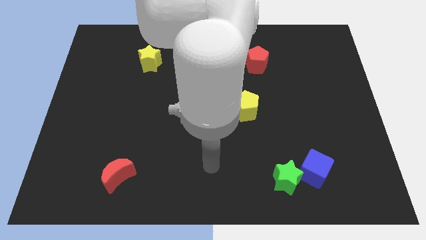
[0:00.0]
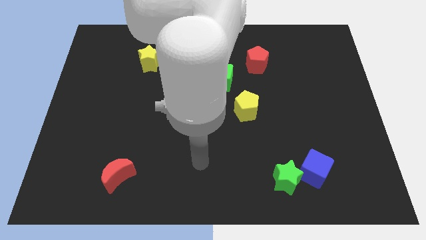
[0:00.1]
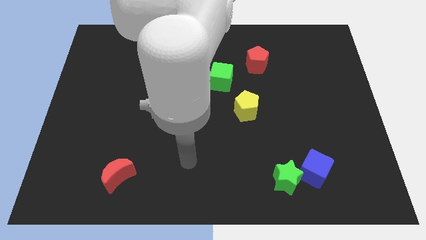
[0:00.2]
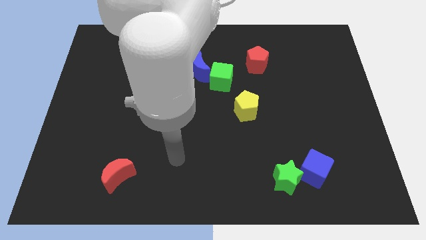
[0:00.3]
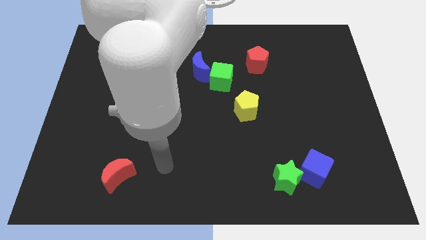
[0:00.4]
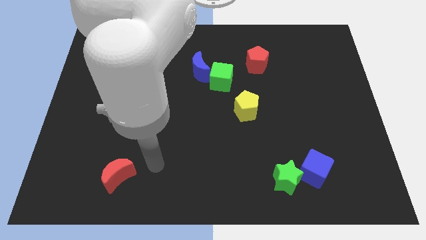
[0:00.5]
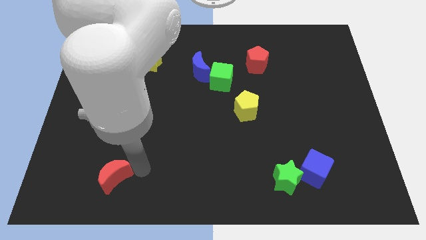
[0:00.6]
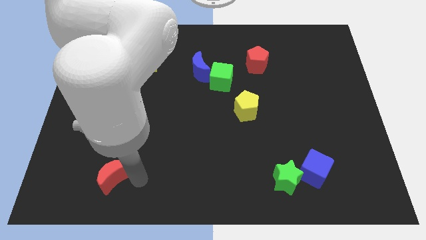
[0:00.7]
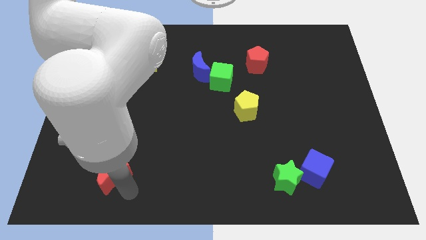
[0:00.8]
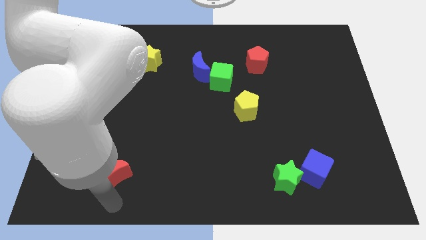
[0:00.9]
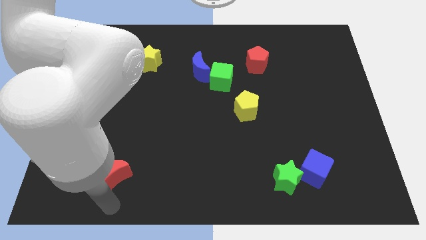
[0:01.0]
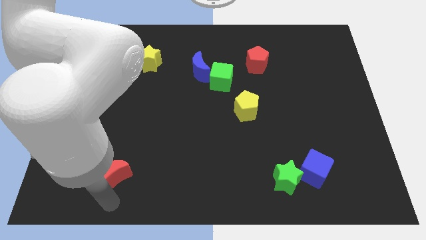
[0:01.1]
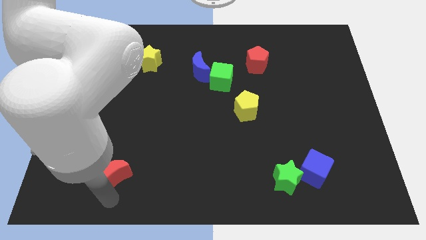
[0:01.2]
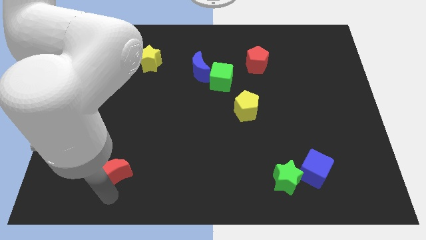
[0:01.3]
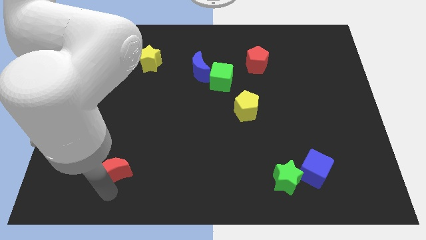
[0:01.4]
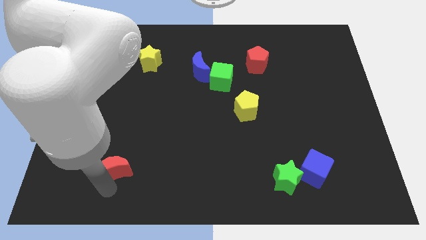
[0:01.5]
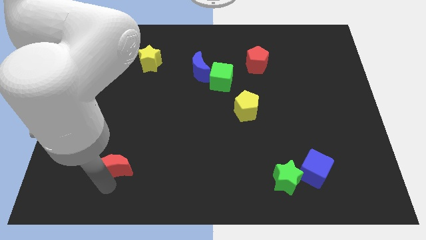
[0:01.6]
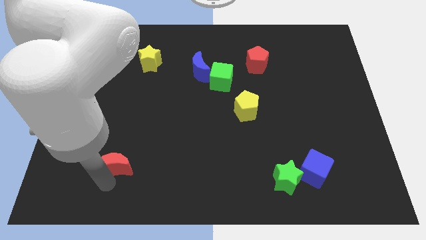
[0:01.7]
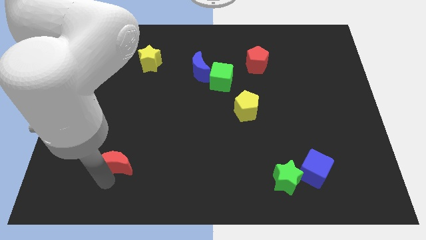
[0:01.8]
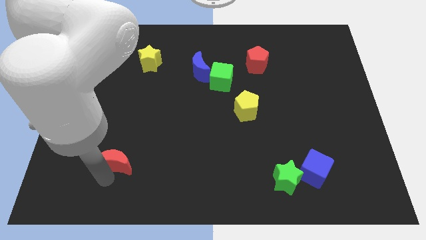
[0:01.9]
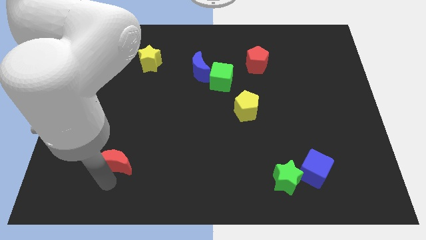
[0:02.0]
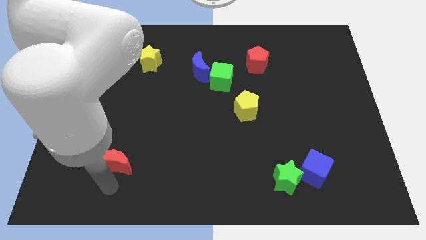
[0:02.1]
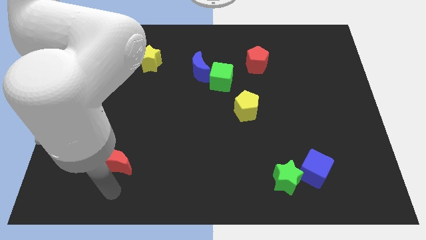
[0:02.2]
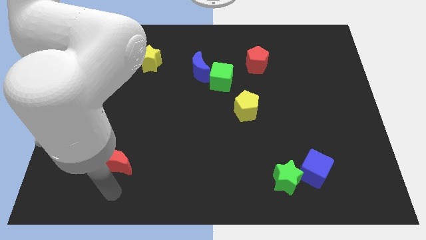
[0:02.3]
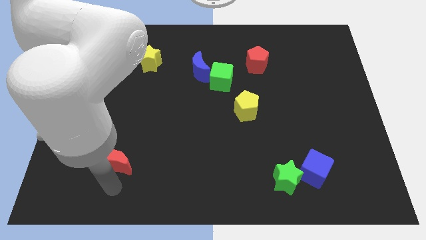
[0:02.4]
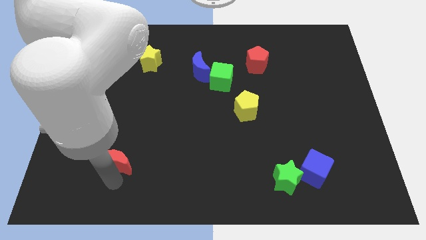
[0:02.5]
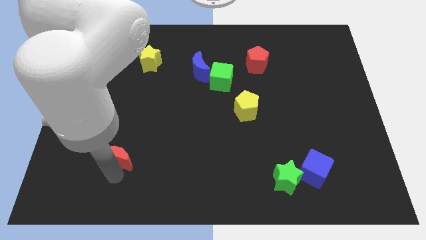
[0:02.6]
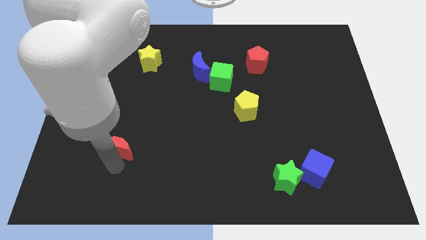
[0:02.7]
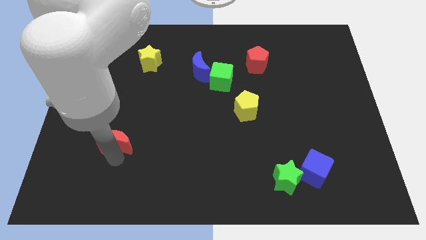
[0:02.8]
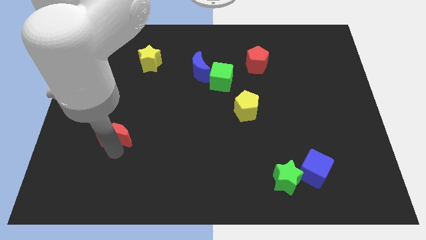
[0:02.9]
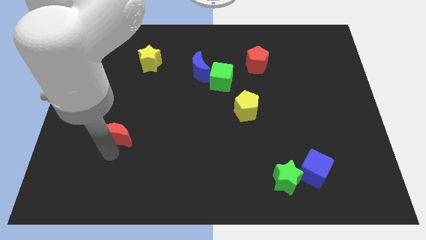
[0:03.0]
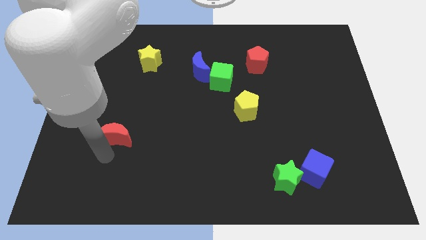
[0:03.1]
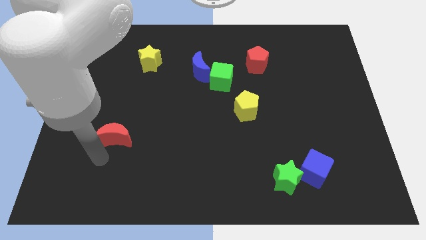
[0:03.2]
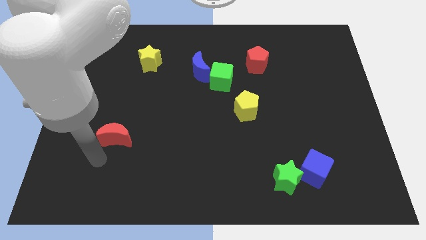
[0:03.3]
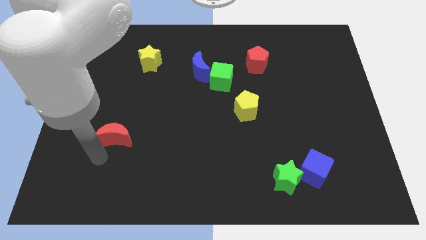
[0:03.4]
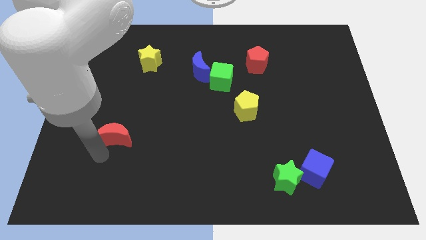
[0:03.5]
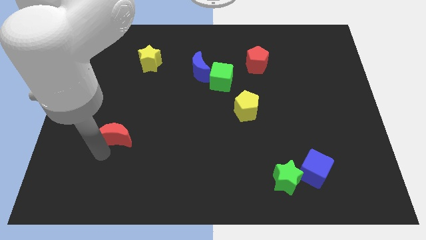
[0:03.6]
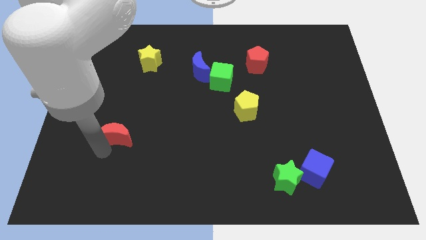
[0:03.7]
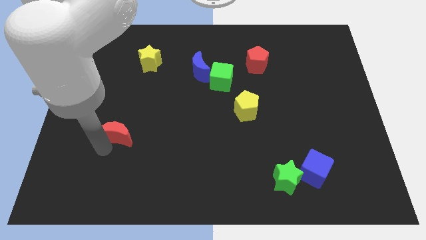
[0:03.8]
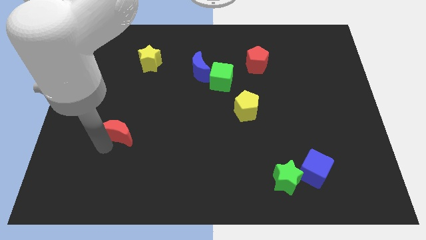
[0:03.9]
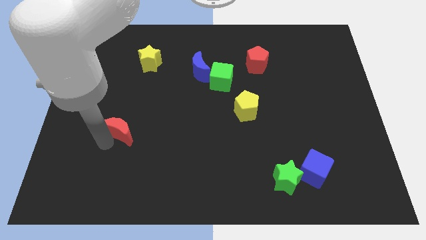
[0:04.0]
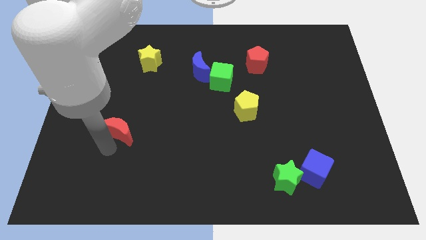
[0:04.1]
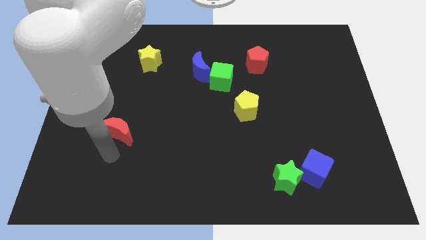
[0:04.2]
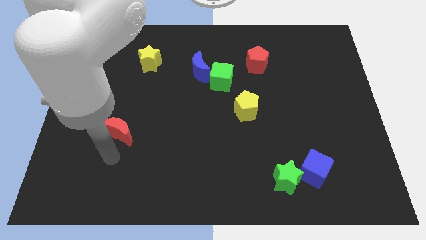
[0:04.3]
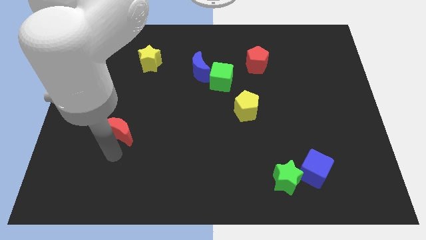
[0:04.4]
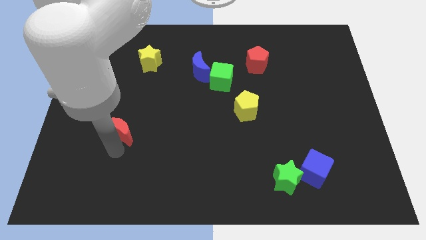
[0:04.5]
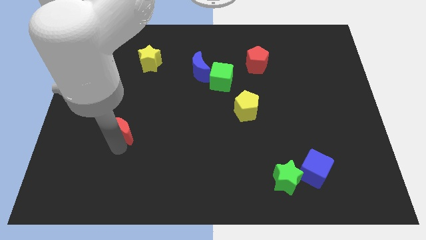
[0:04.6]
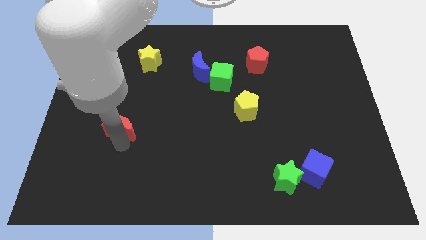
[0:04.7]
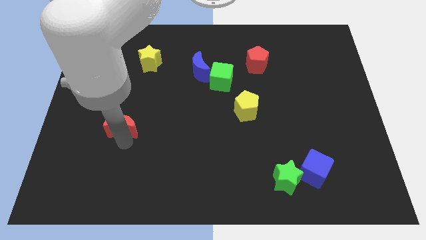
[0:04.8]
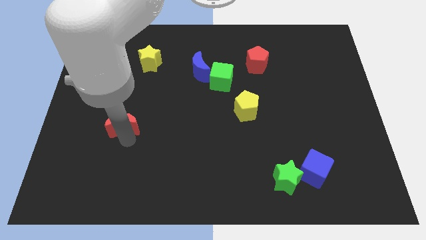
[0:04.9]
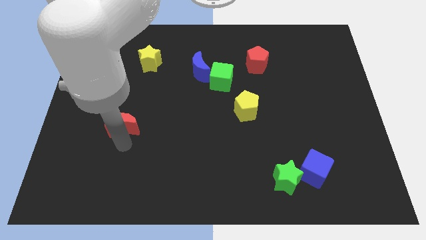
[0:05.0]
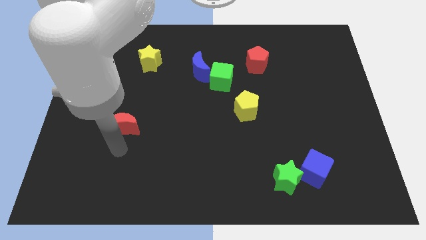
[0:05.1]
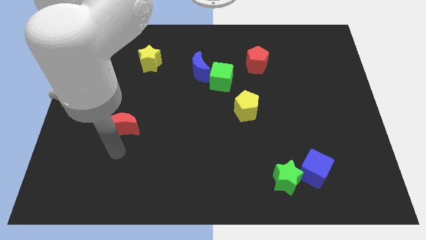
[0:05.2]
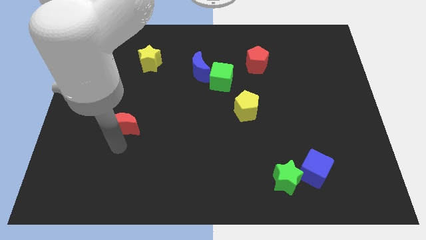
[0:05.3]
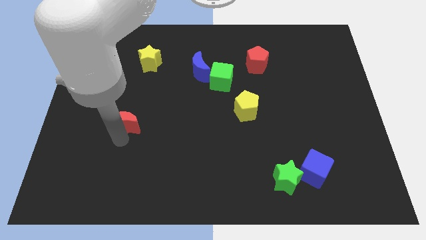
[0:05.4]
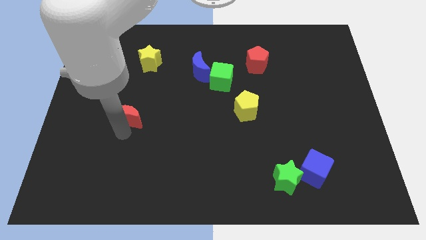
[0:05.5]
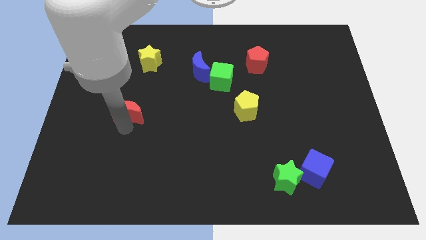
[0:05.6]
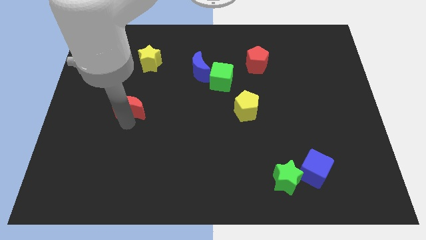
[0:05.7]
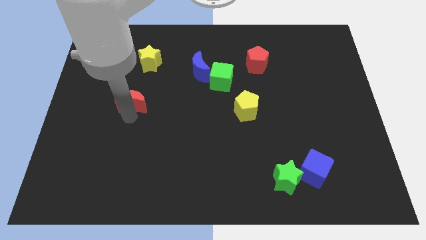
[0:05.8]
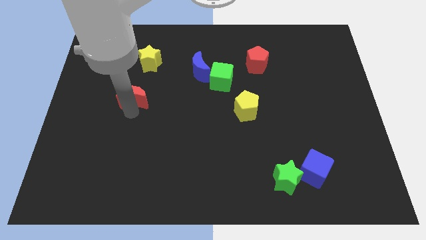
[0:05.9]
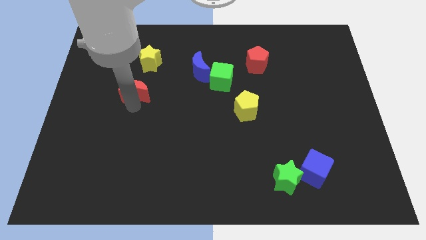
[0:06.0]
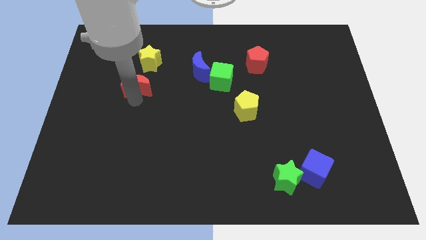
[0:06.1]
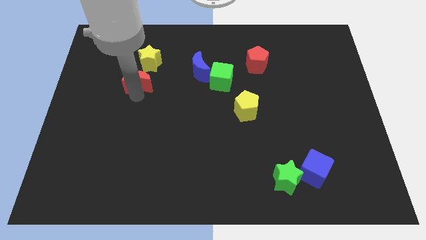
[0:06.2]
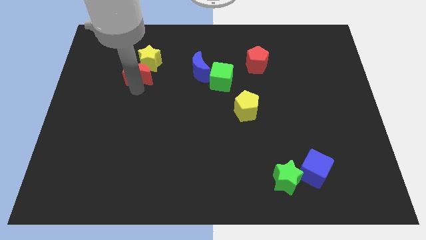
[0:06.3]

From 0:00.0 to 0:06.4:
slide the red moon to the yellow star
